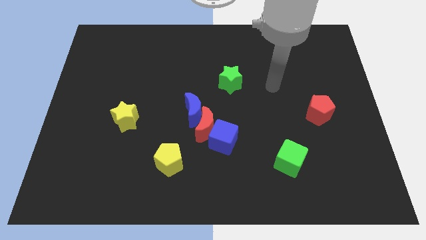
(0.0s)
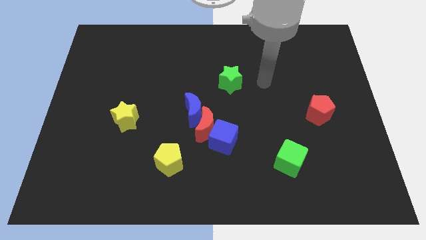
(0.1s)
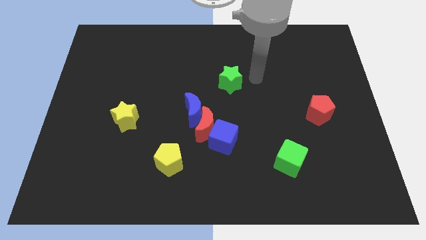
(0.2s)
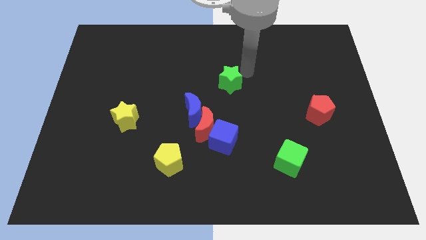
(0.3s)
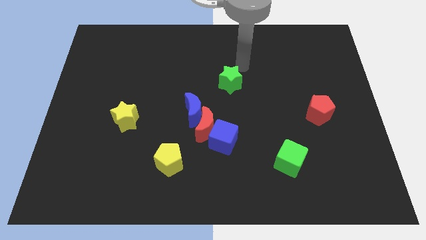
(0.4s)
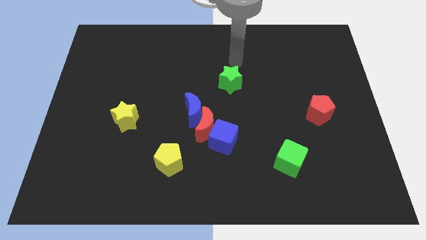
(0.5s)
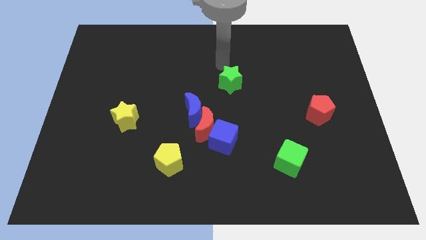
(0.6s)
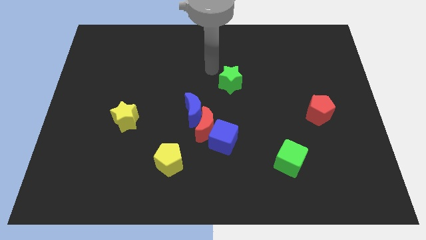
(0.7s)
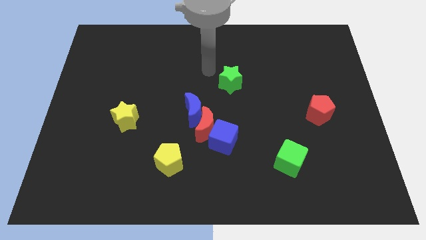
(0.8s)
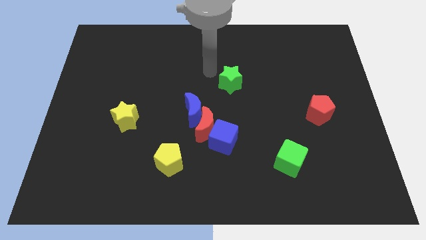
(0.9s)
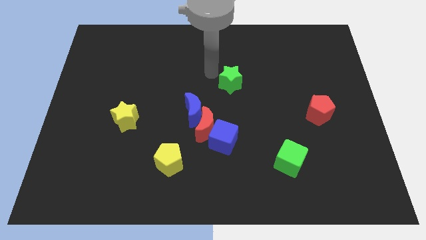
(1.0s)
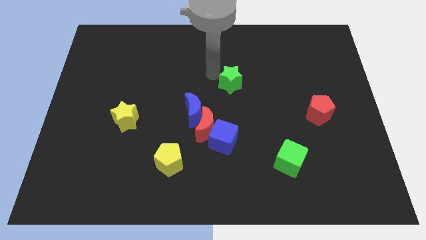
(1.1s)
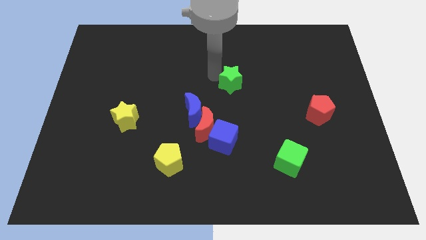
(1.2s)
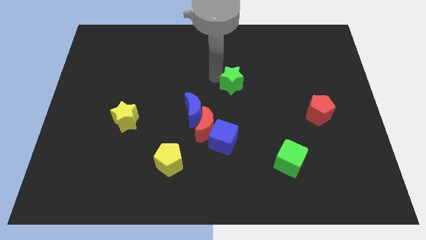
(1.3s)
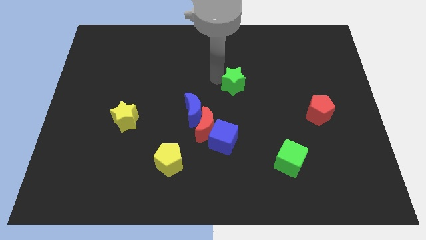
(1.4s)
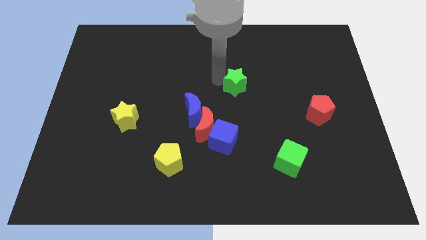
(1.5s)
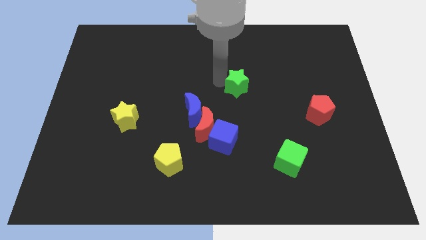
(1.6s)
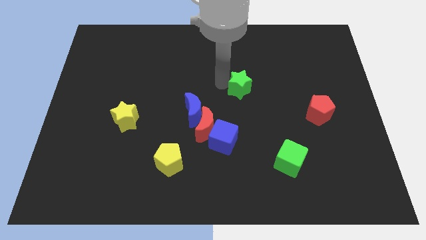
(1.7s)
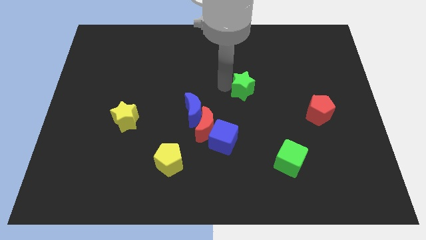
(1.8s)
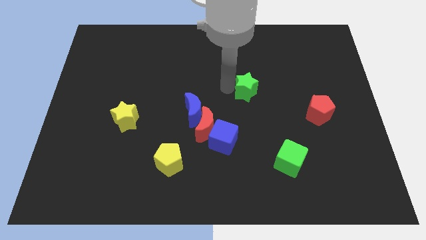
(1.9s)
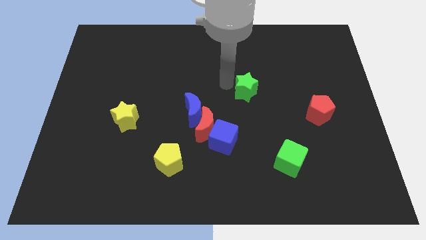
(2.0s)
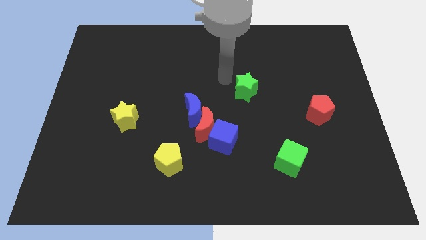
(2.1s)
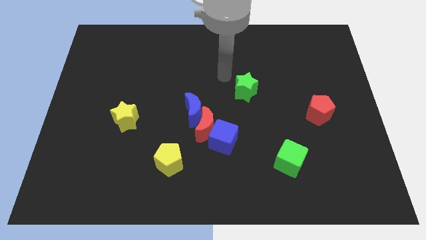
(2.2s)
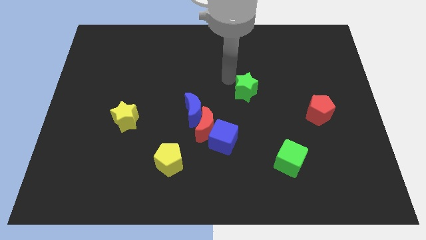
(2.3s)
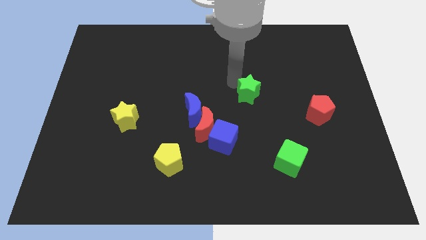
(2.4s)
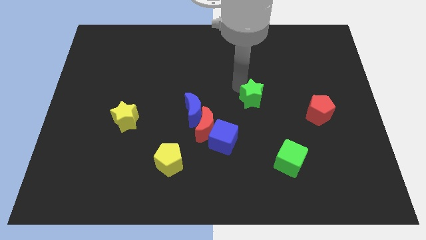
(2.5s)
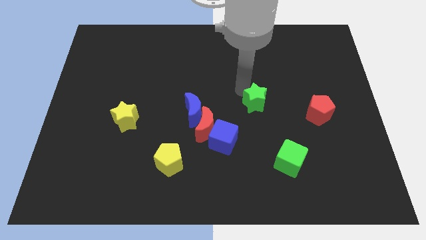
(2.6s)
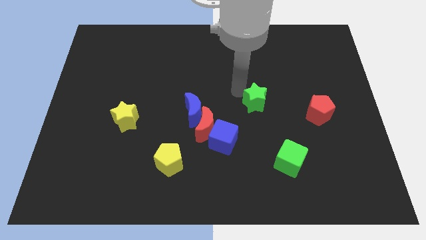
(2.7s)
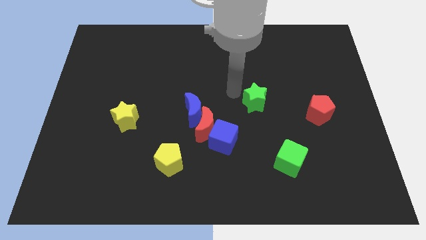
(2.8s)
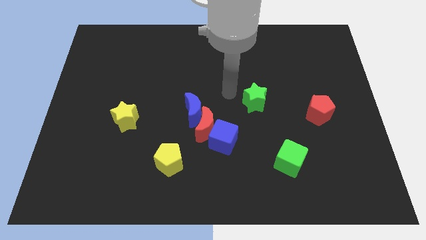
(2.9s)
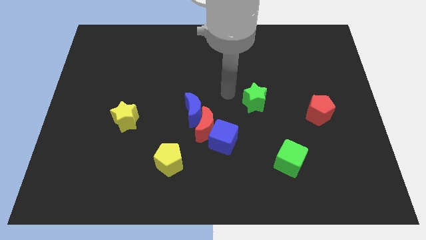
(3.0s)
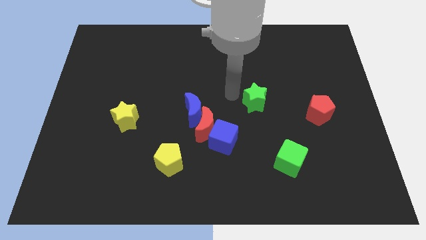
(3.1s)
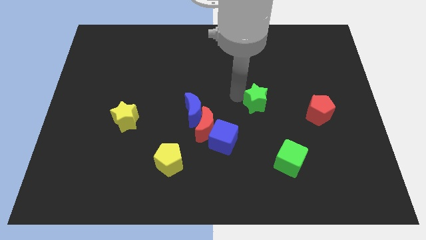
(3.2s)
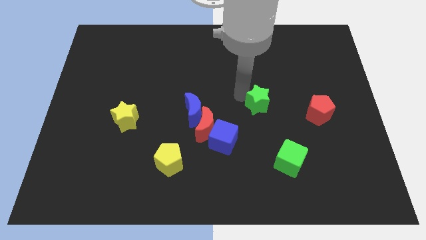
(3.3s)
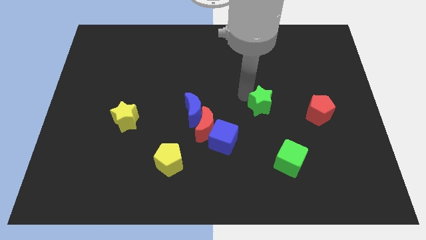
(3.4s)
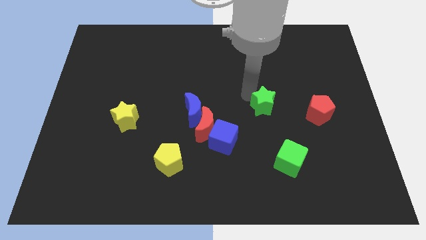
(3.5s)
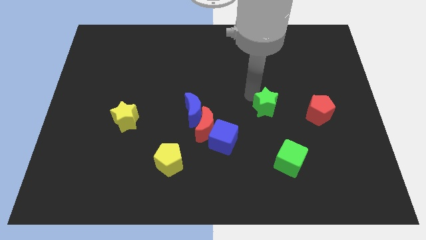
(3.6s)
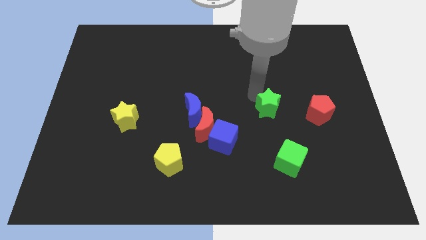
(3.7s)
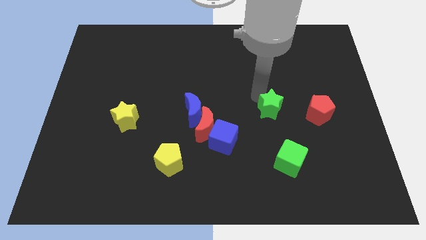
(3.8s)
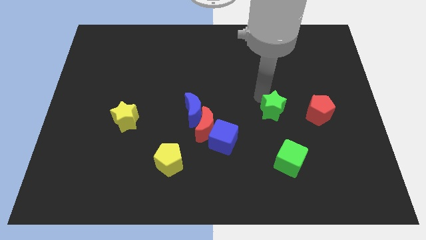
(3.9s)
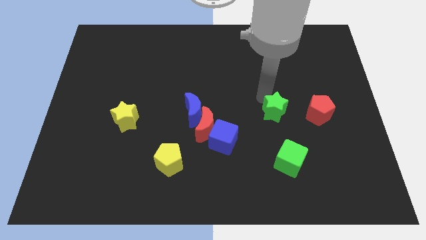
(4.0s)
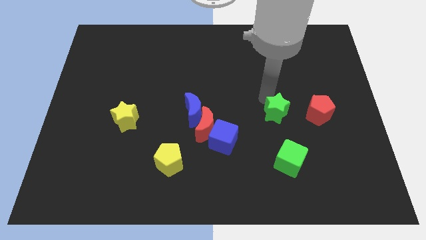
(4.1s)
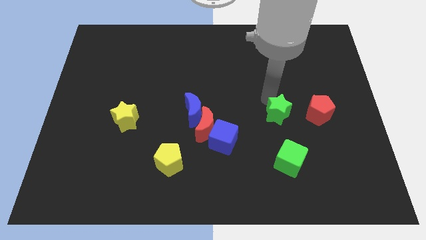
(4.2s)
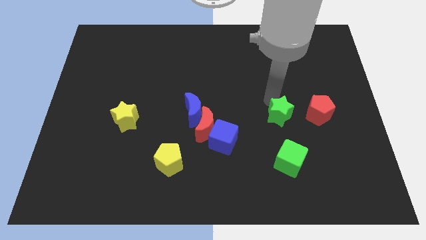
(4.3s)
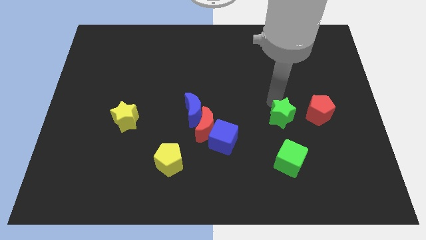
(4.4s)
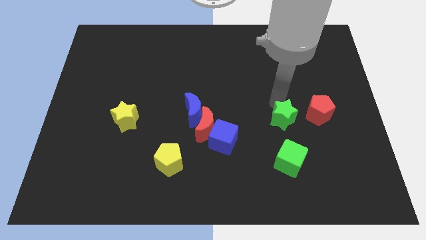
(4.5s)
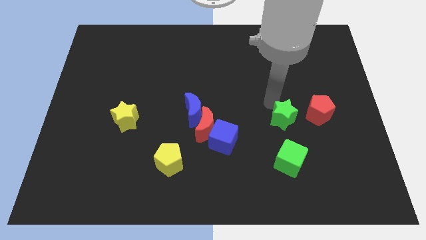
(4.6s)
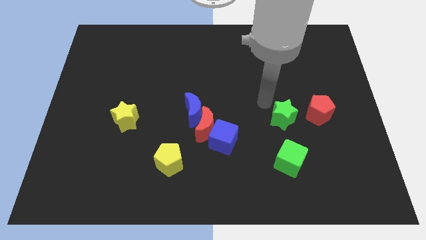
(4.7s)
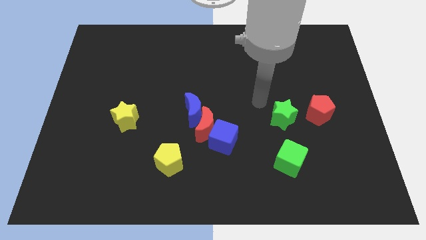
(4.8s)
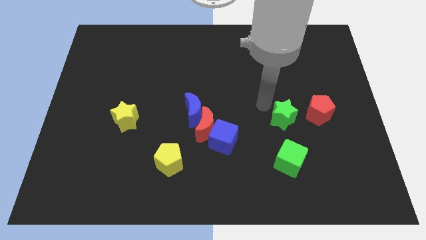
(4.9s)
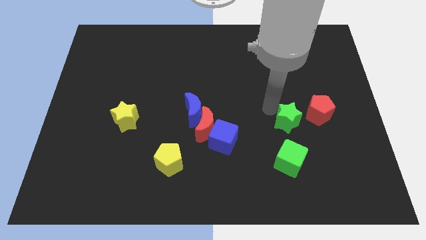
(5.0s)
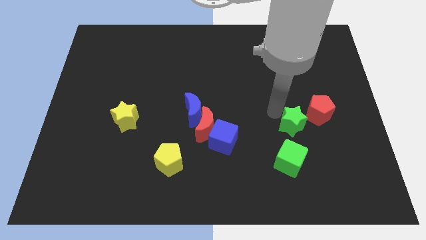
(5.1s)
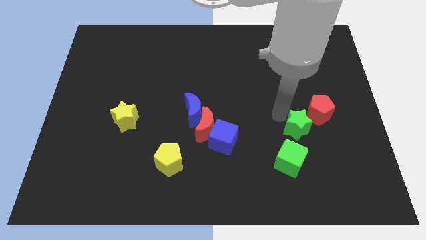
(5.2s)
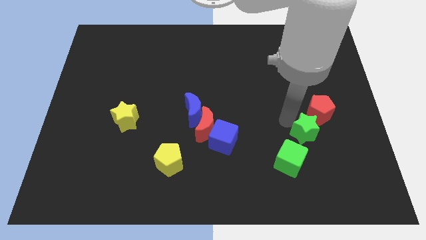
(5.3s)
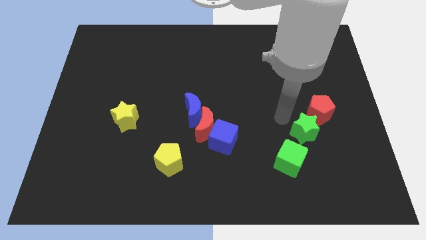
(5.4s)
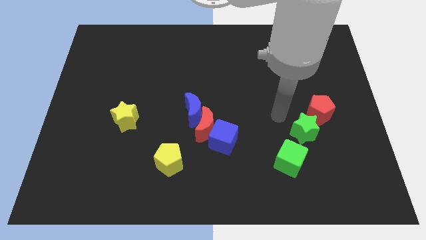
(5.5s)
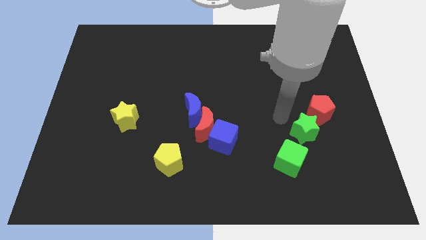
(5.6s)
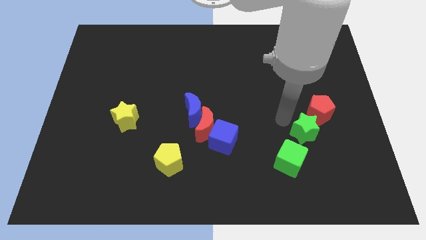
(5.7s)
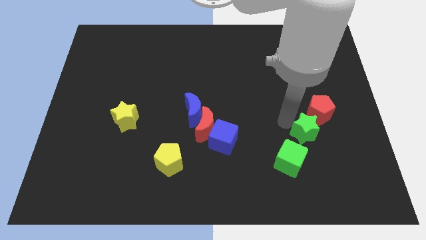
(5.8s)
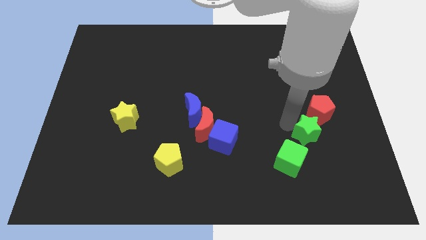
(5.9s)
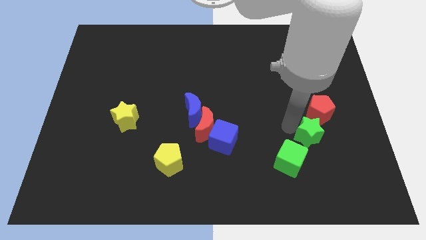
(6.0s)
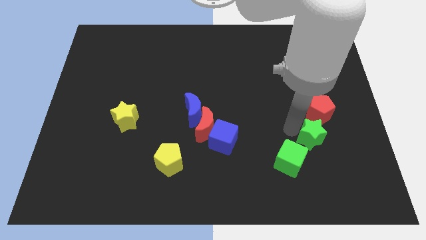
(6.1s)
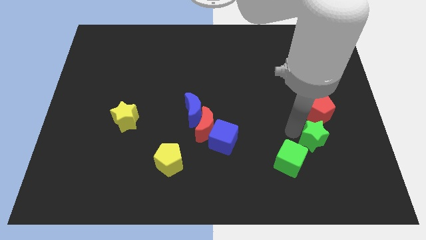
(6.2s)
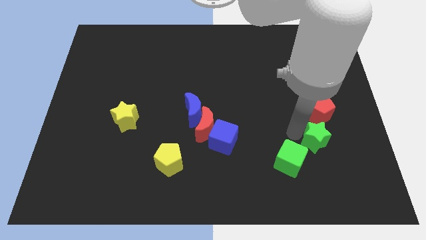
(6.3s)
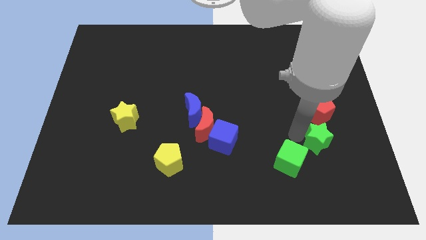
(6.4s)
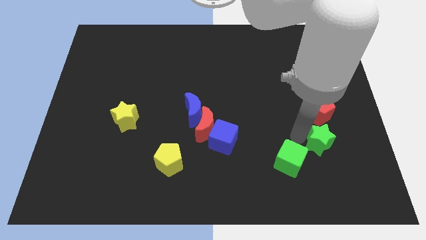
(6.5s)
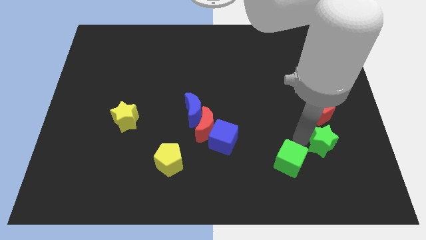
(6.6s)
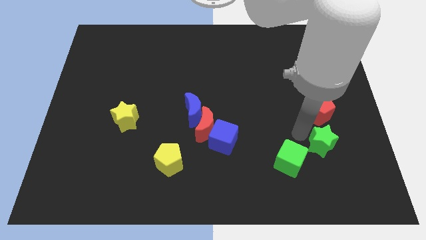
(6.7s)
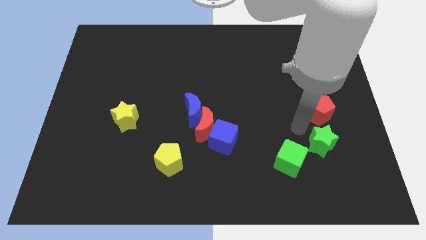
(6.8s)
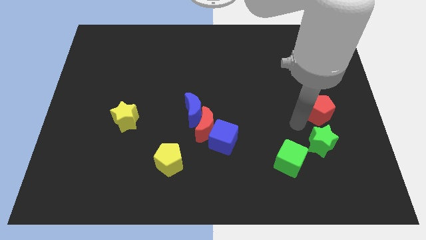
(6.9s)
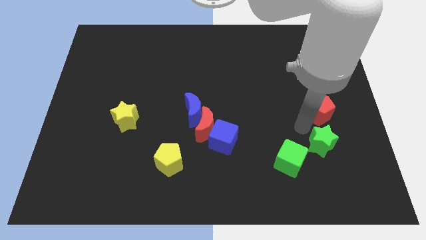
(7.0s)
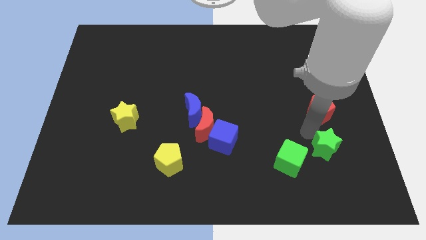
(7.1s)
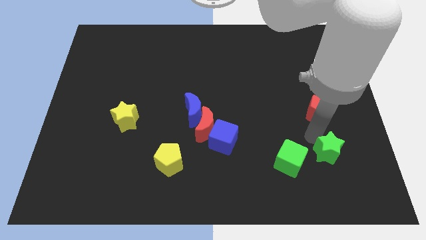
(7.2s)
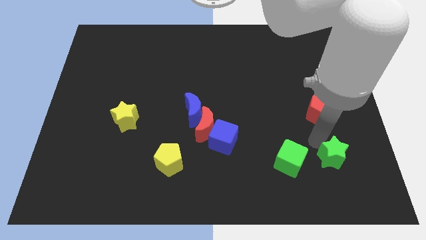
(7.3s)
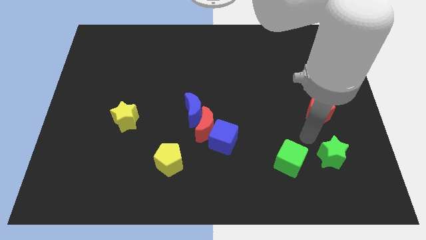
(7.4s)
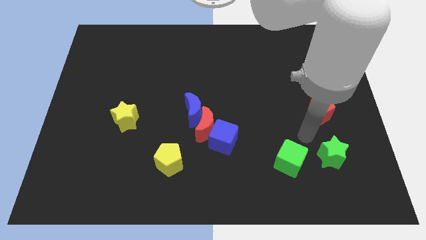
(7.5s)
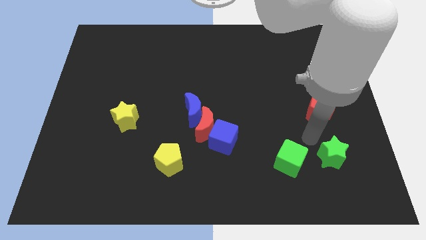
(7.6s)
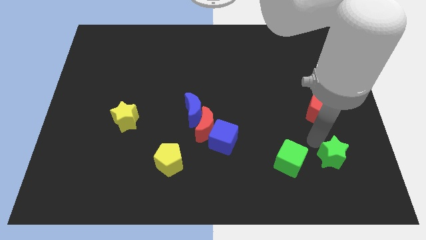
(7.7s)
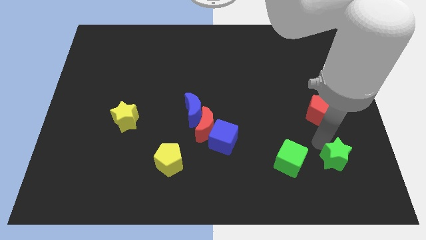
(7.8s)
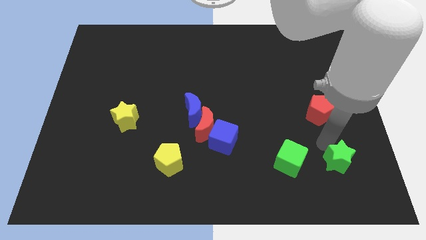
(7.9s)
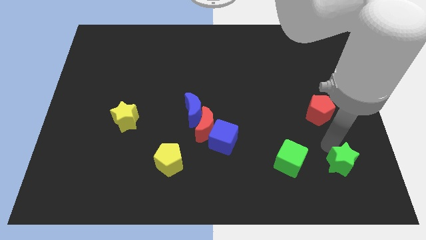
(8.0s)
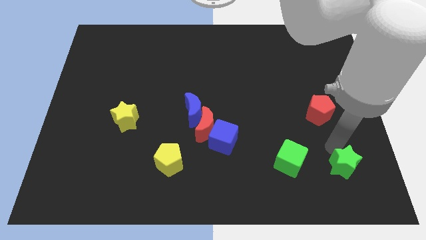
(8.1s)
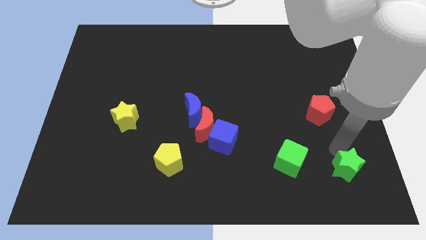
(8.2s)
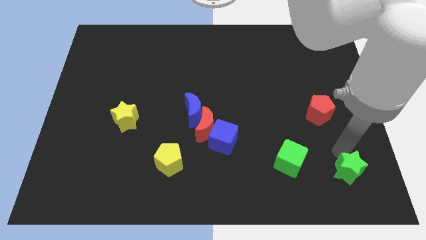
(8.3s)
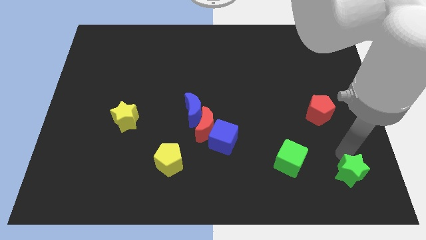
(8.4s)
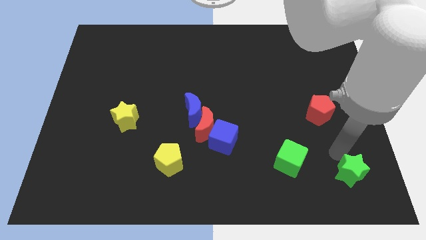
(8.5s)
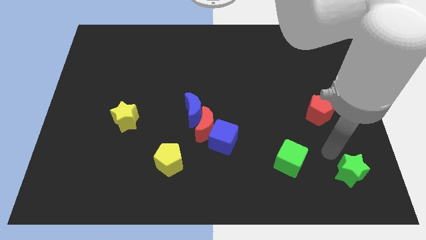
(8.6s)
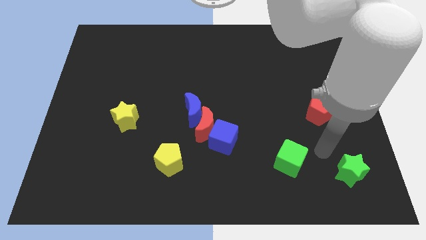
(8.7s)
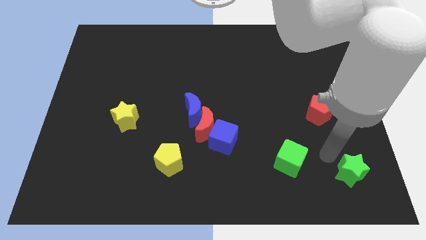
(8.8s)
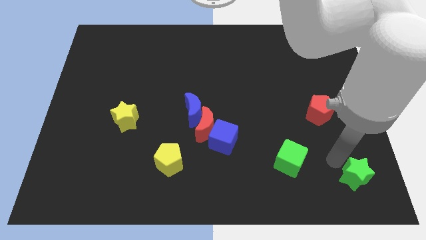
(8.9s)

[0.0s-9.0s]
slide the green star to the lower right corner
